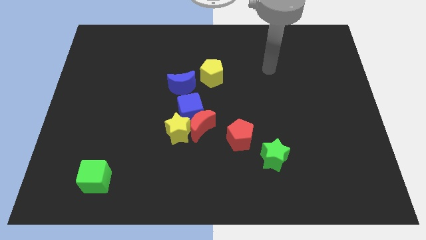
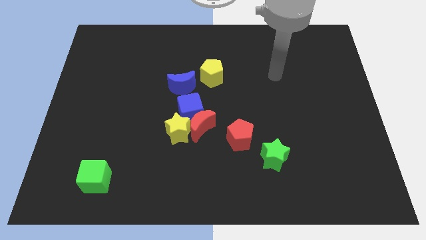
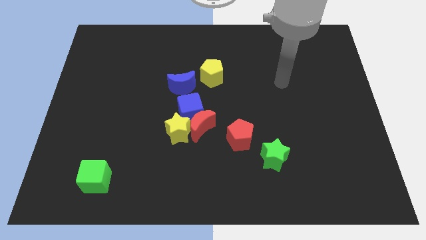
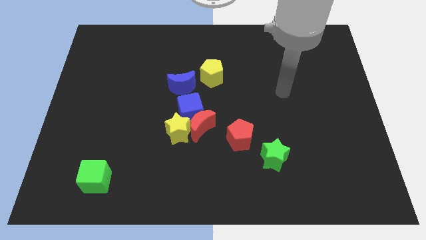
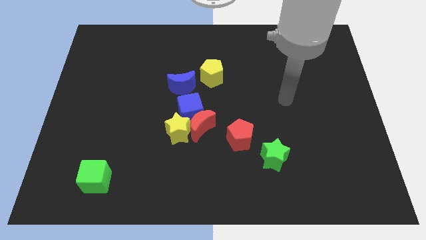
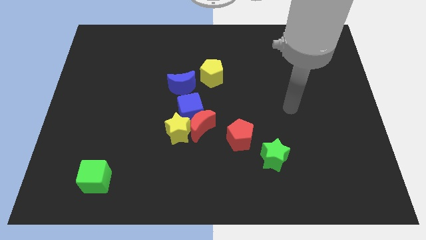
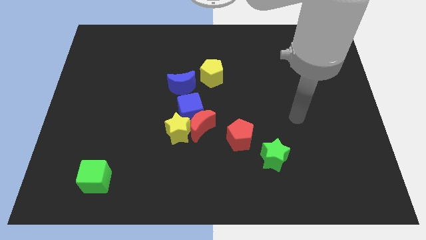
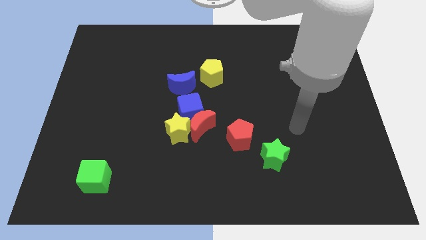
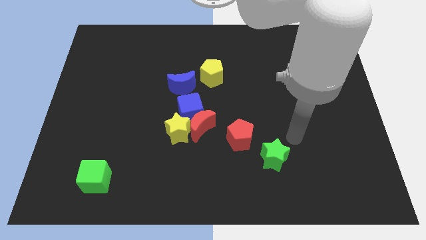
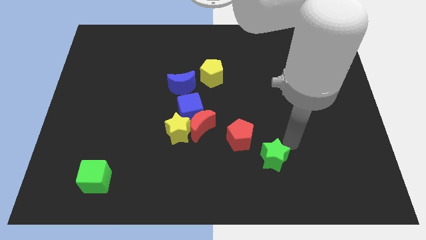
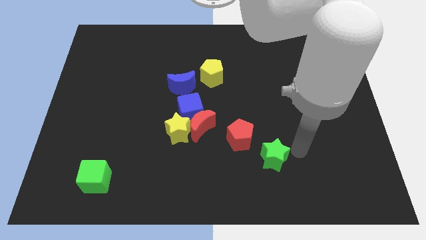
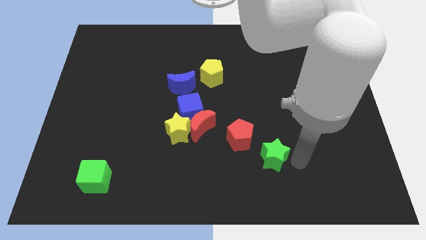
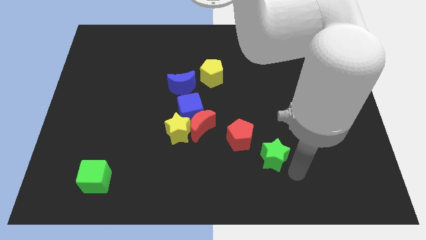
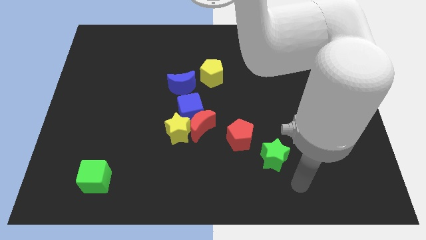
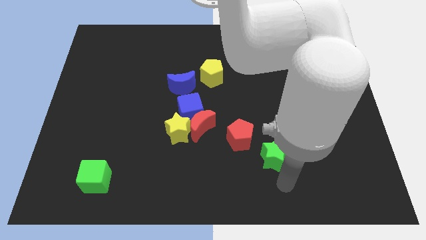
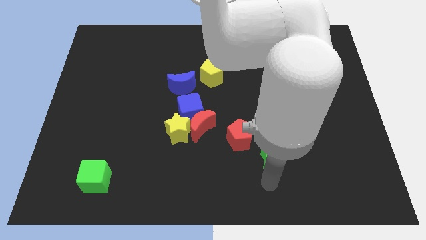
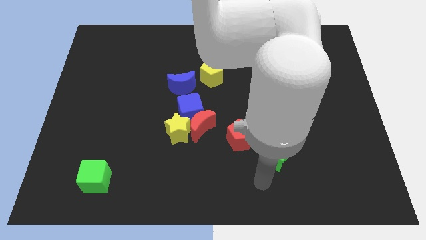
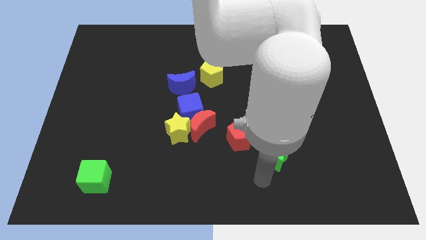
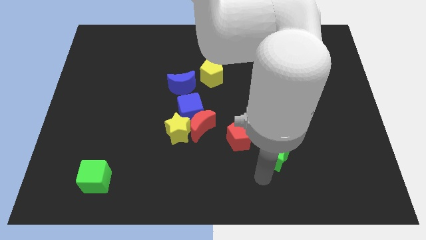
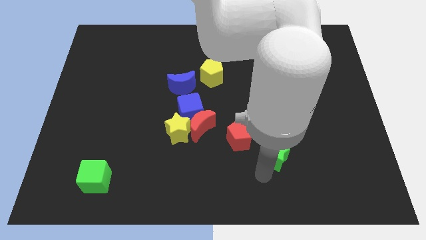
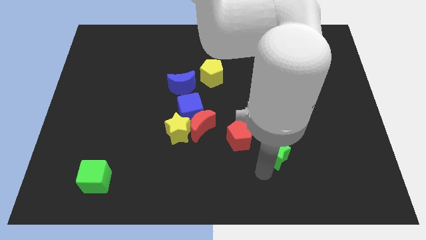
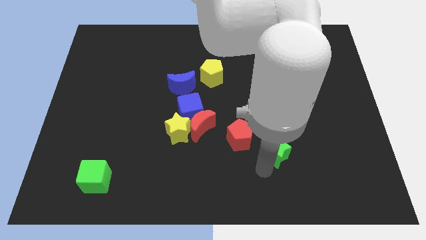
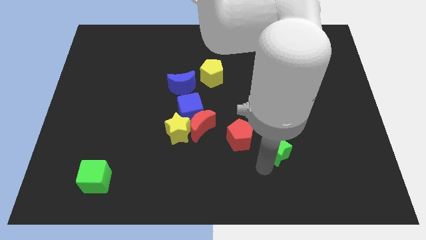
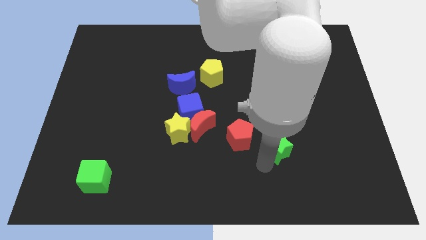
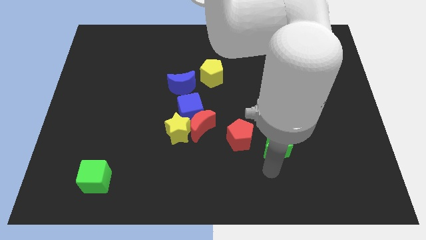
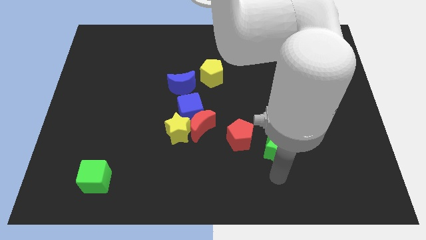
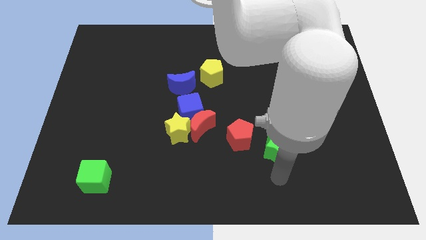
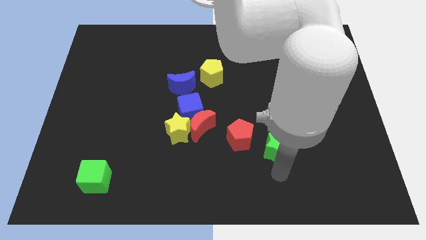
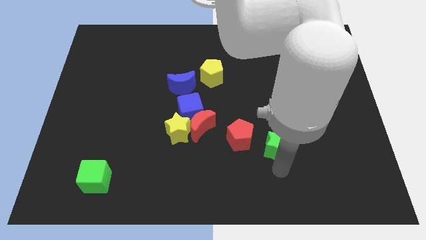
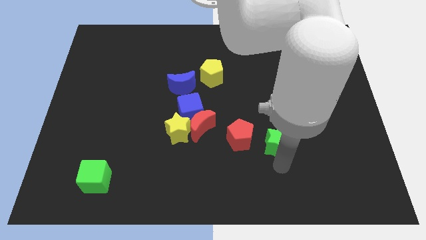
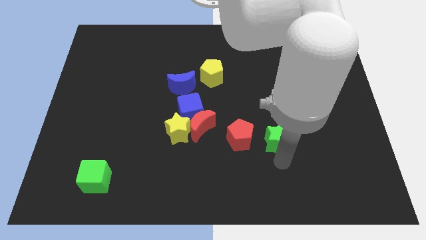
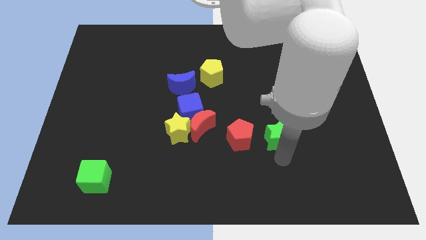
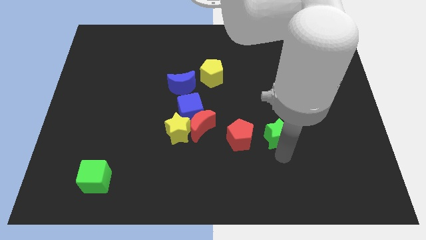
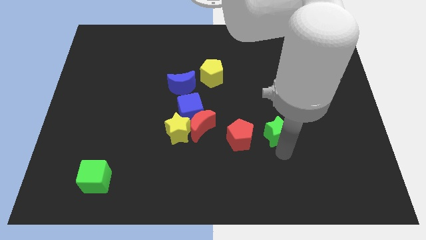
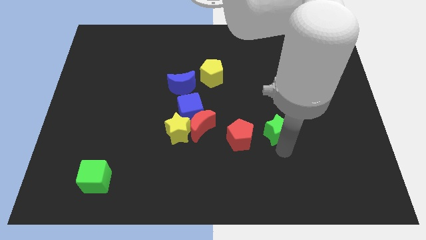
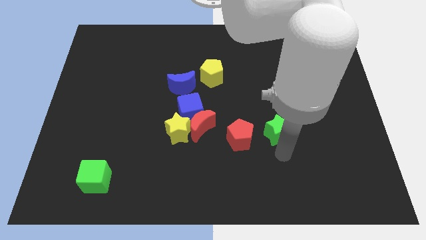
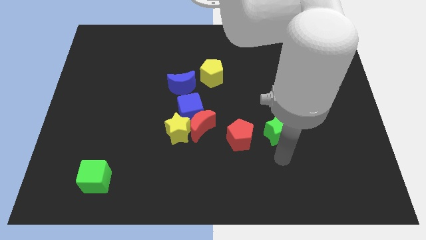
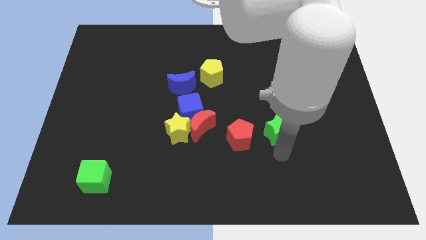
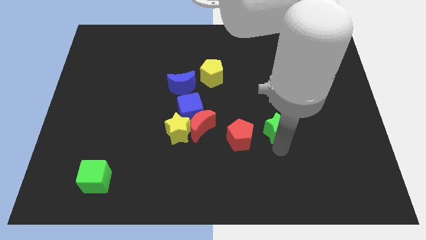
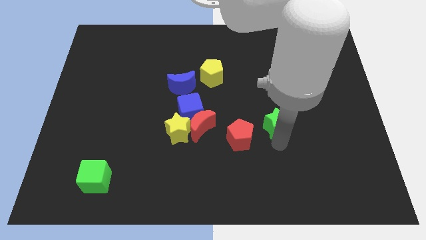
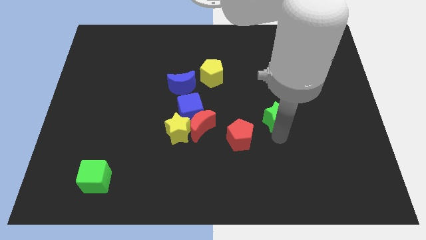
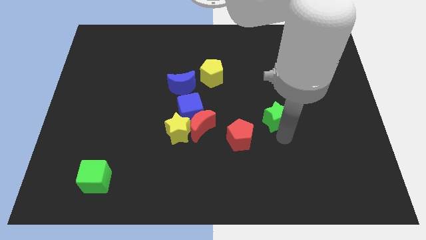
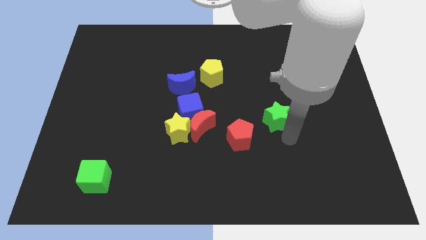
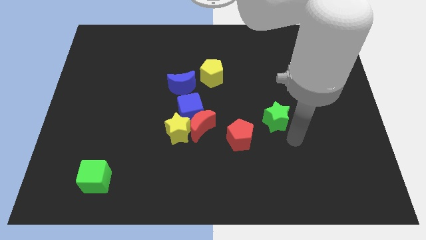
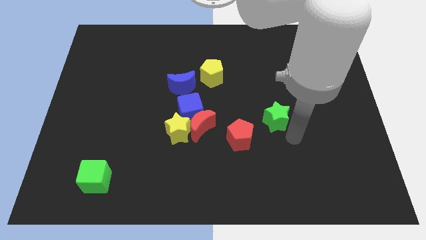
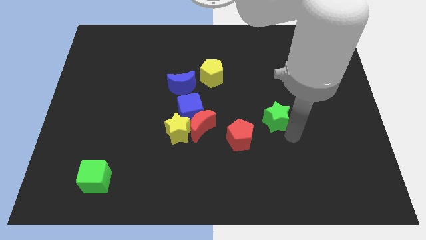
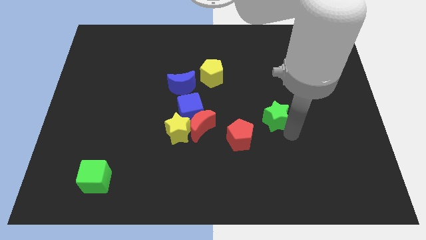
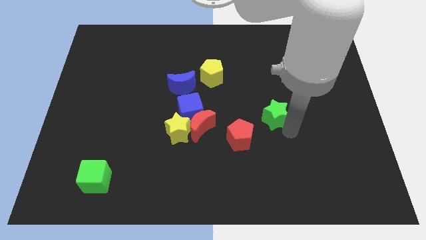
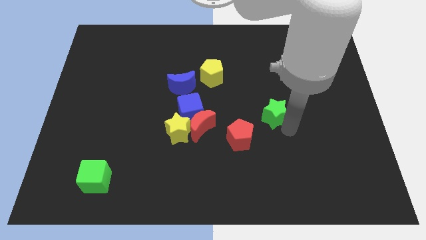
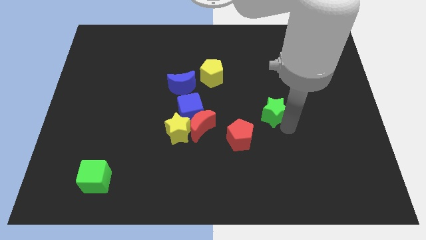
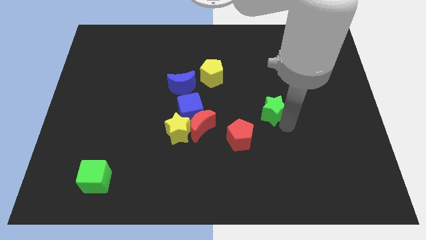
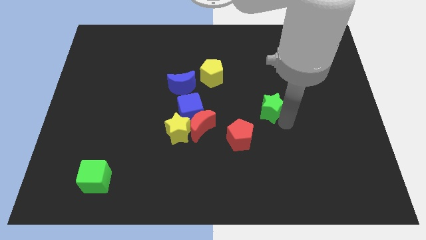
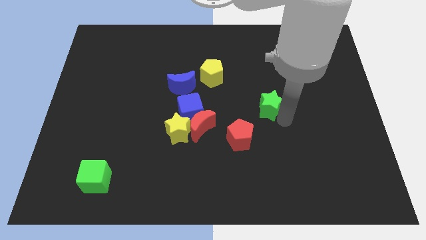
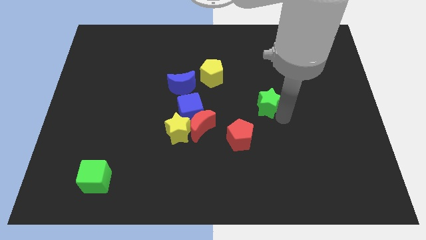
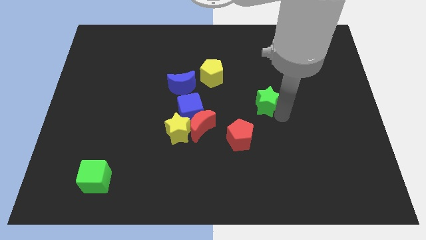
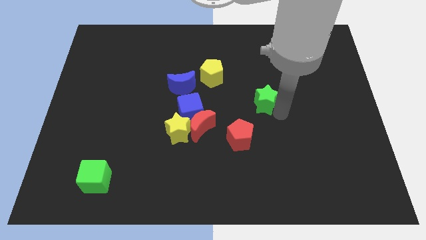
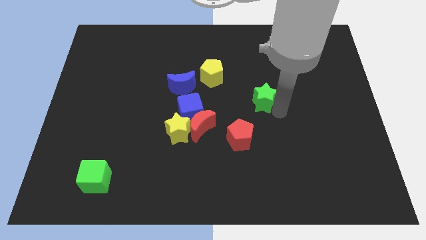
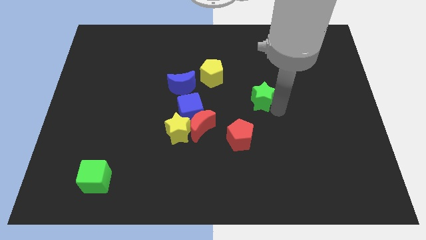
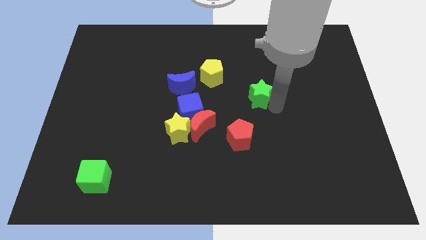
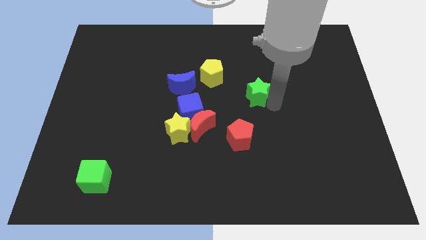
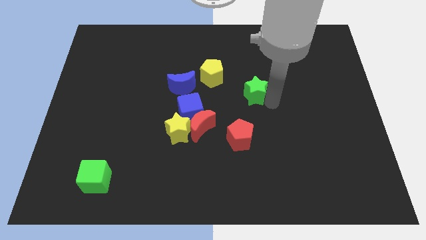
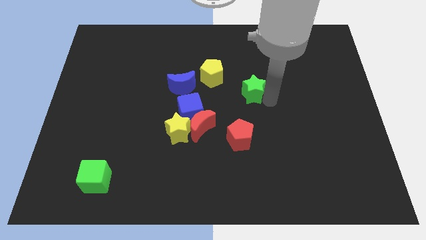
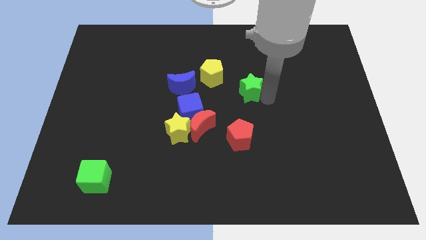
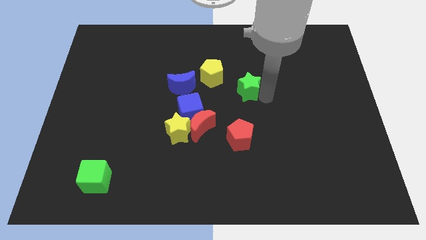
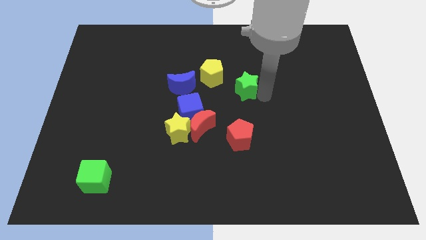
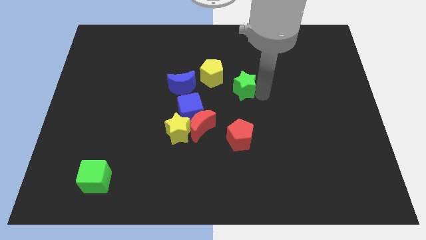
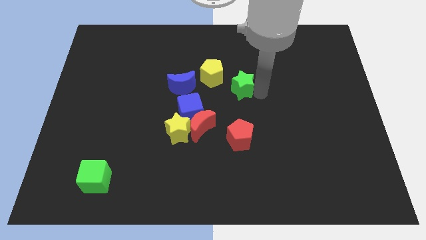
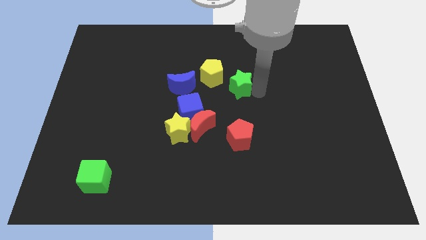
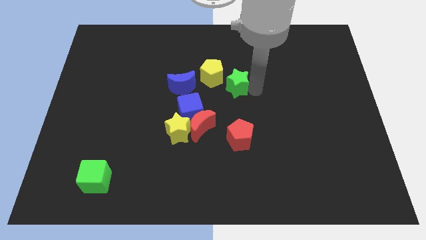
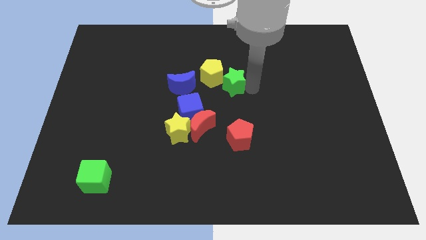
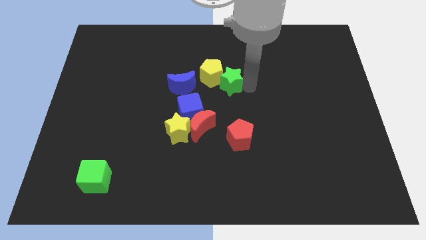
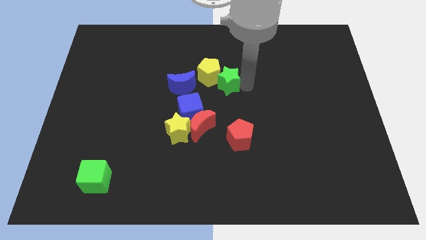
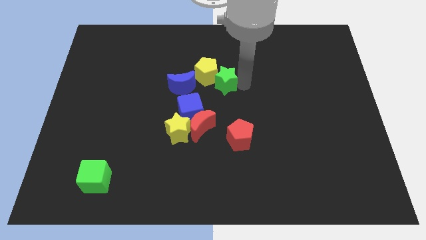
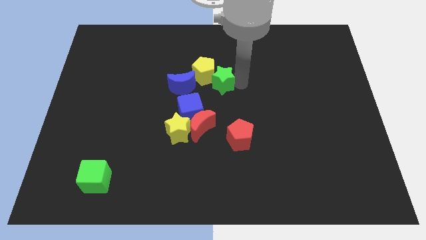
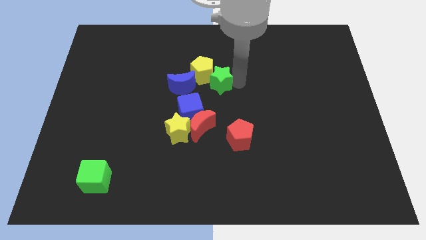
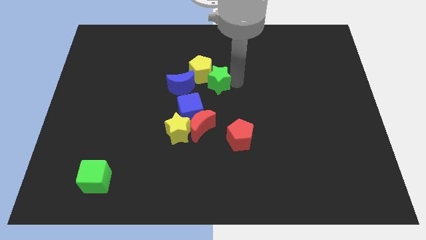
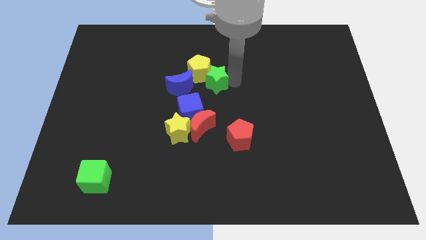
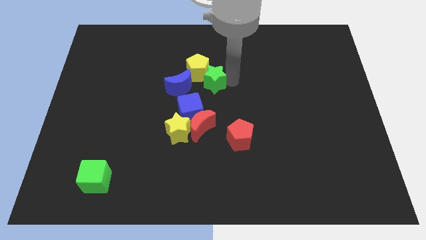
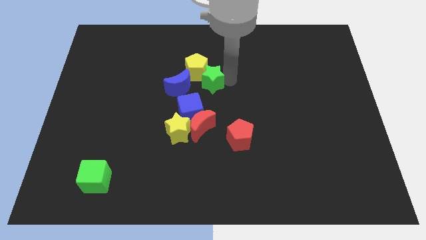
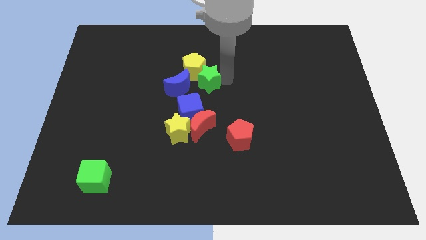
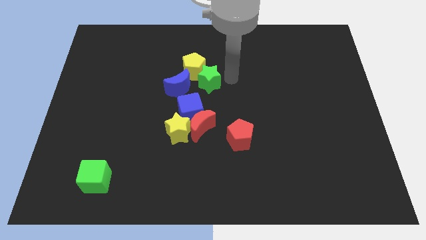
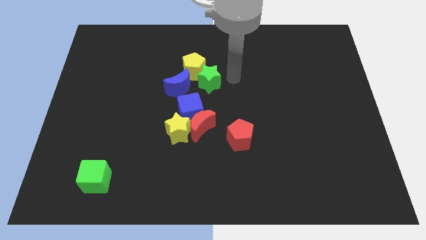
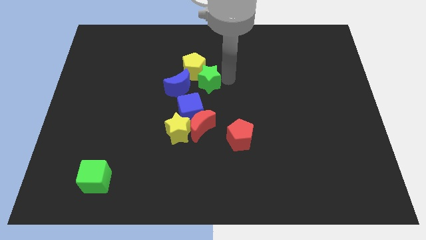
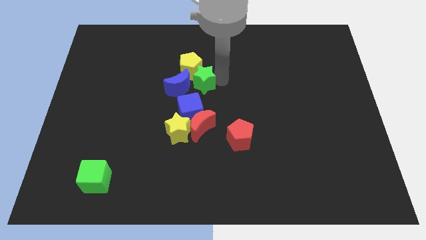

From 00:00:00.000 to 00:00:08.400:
push the green star to the blue moon
